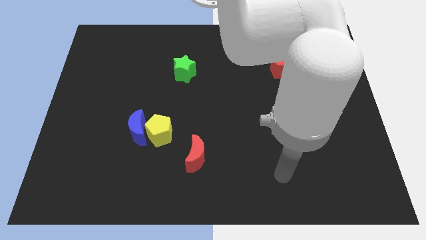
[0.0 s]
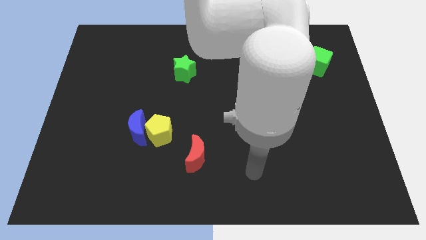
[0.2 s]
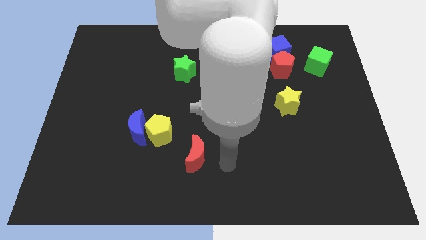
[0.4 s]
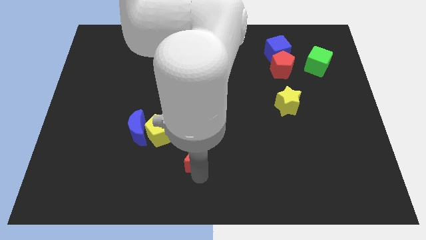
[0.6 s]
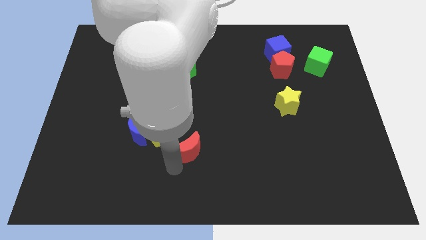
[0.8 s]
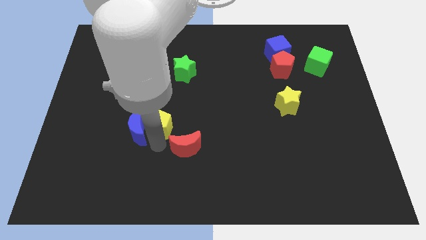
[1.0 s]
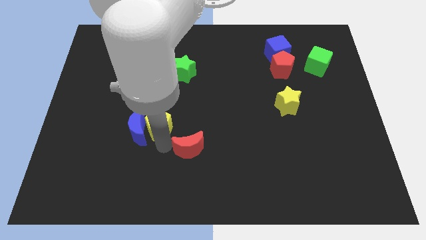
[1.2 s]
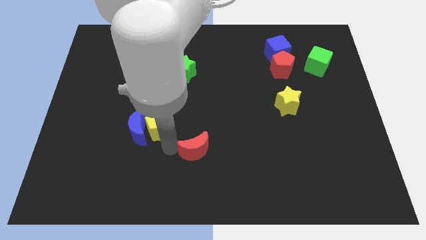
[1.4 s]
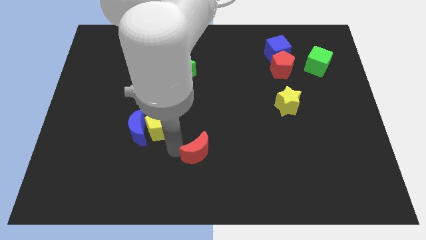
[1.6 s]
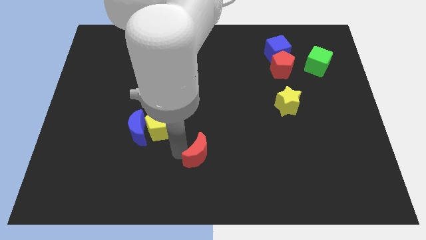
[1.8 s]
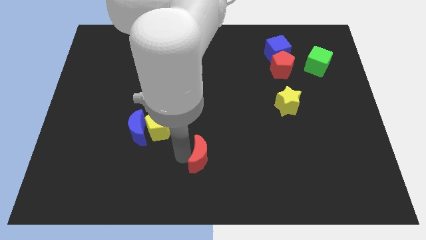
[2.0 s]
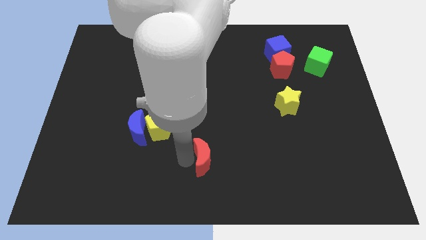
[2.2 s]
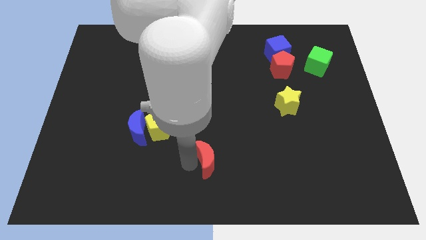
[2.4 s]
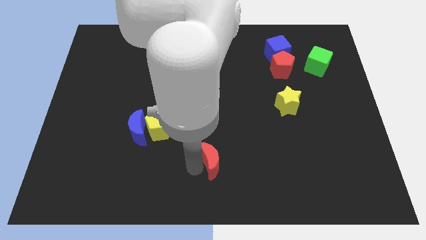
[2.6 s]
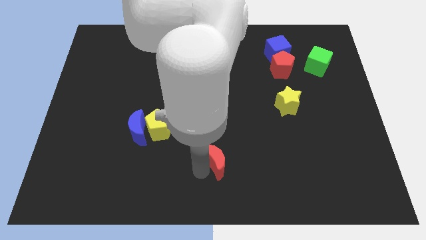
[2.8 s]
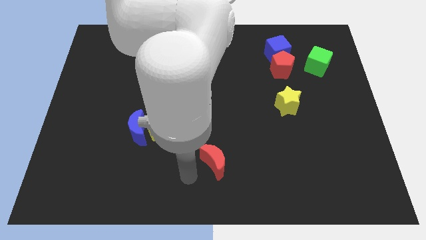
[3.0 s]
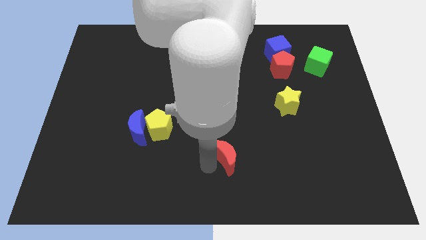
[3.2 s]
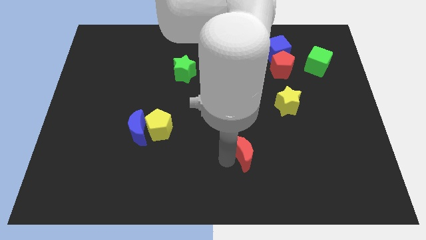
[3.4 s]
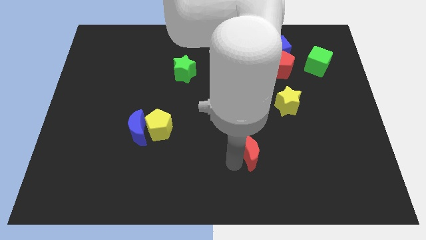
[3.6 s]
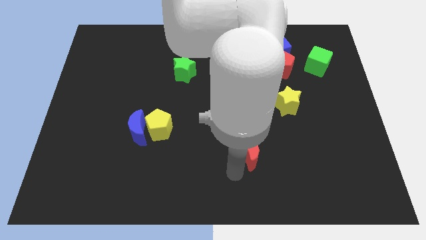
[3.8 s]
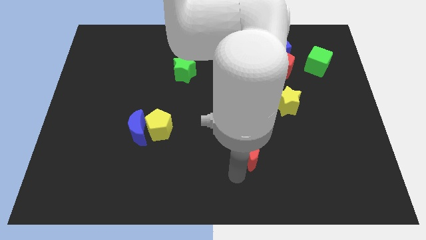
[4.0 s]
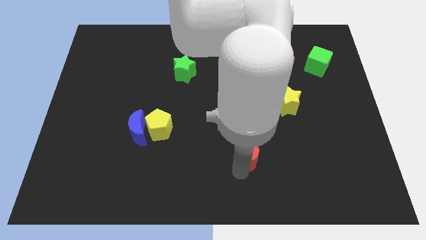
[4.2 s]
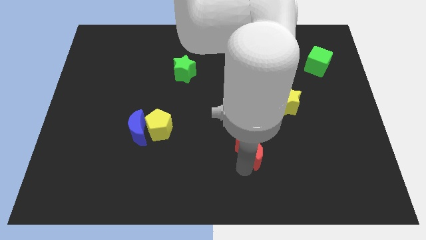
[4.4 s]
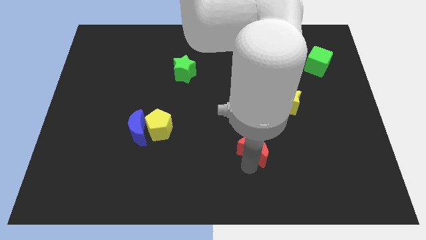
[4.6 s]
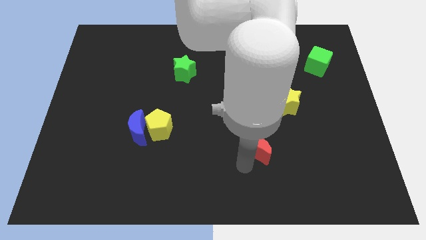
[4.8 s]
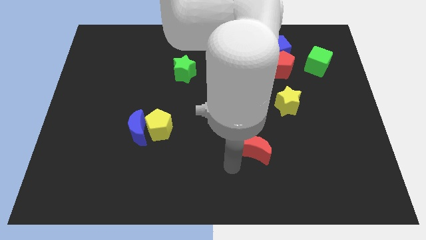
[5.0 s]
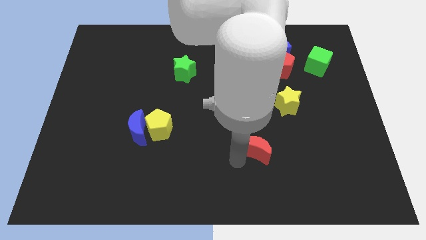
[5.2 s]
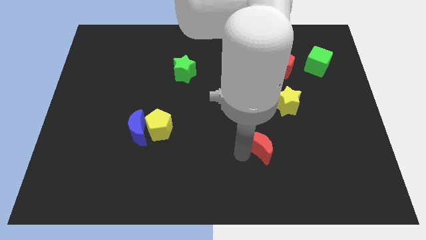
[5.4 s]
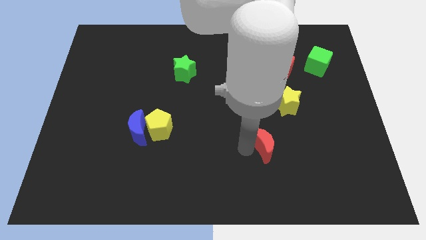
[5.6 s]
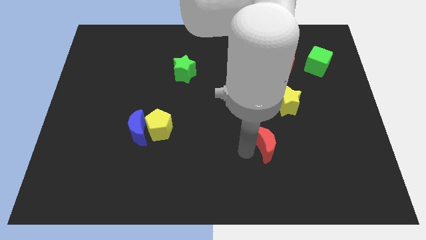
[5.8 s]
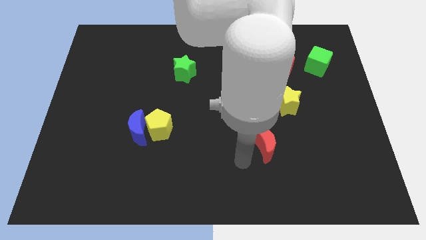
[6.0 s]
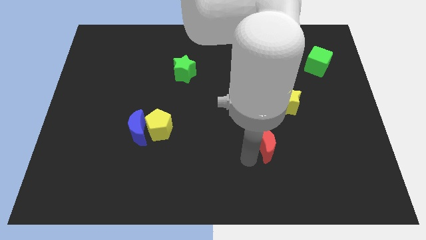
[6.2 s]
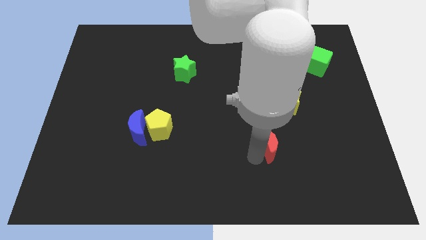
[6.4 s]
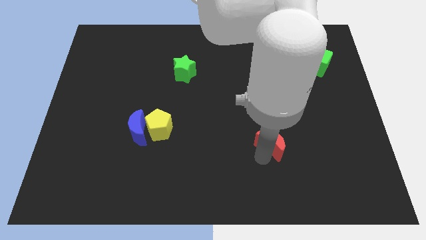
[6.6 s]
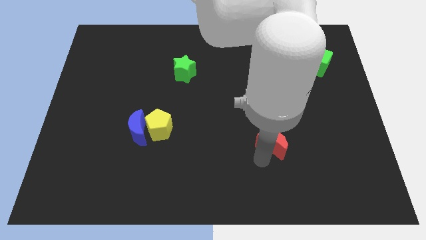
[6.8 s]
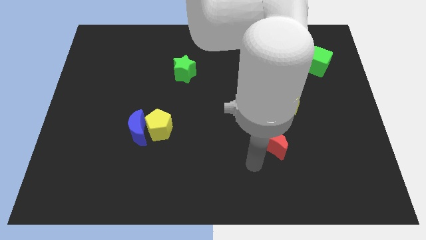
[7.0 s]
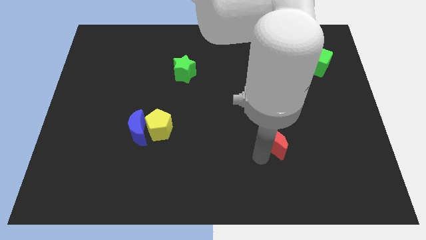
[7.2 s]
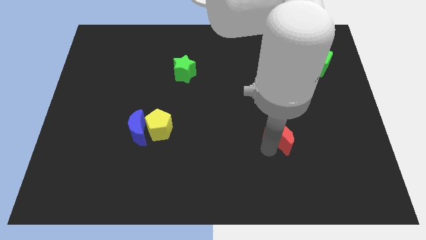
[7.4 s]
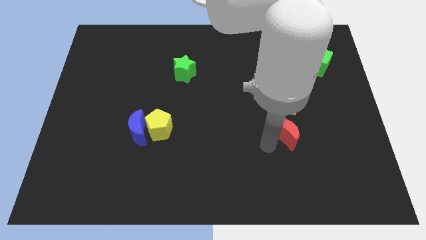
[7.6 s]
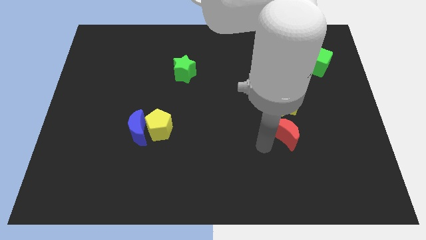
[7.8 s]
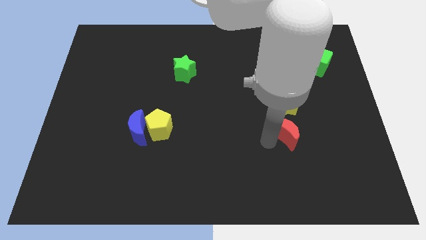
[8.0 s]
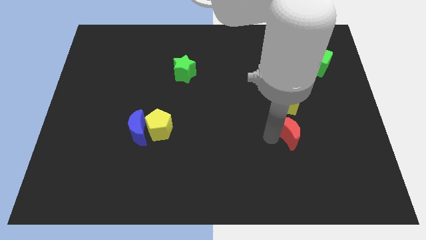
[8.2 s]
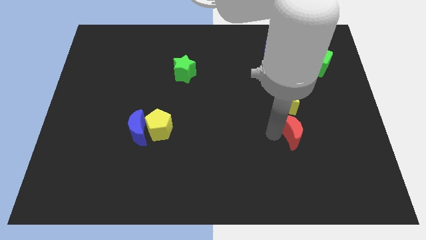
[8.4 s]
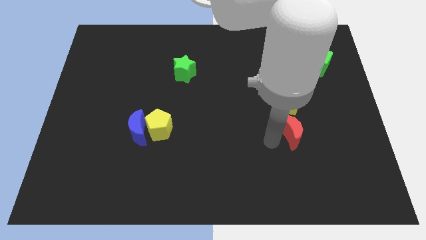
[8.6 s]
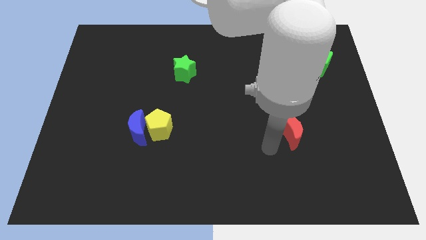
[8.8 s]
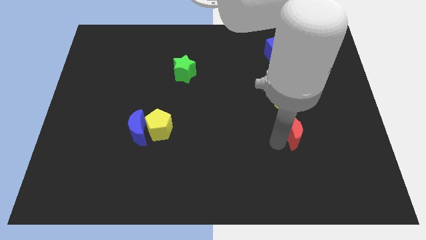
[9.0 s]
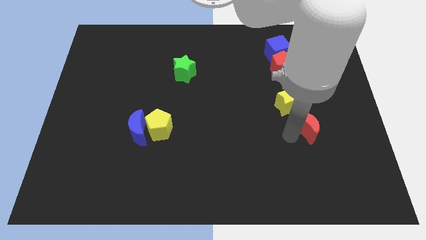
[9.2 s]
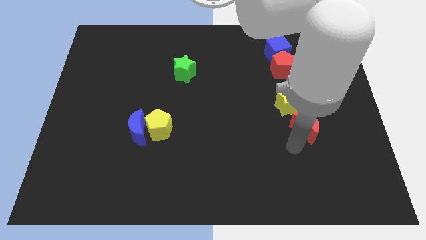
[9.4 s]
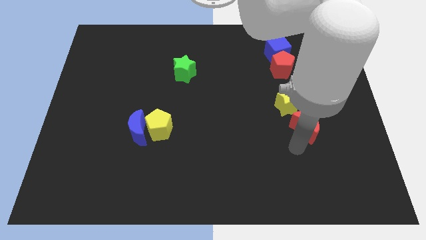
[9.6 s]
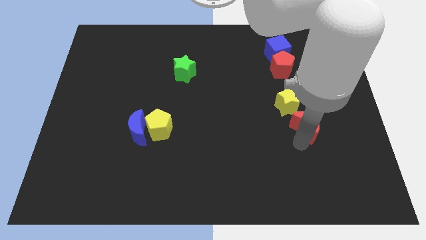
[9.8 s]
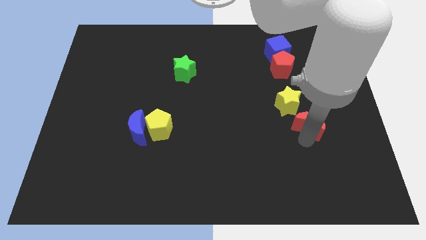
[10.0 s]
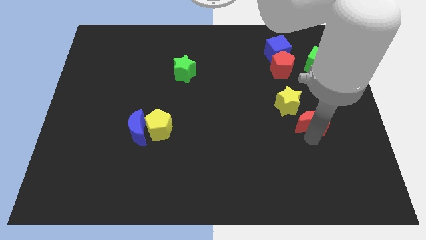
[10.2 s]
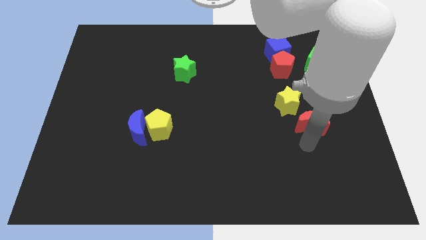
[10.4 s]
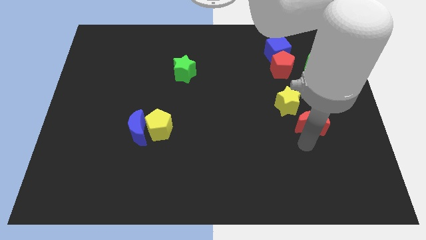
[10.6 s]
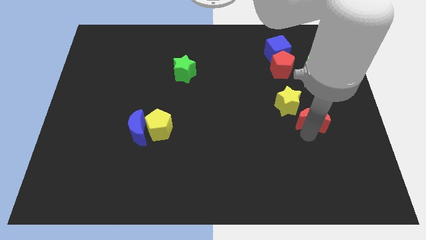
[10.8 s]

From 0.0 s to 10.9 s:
move the red moon to the right side of the yellow star

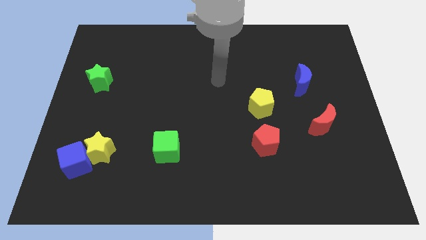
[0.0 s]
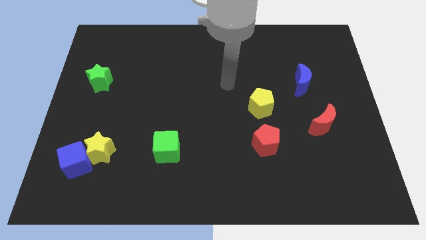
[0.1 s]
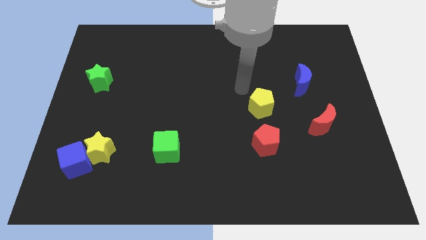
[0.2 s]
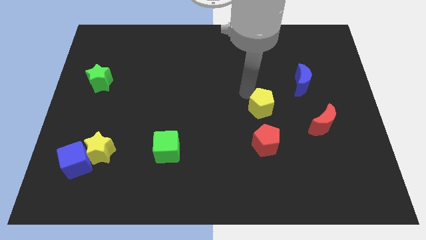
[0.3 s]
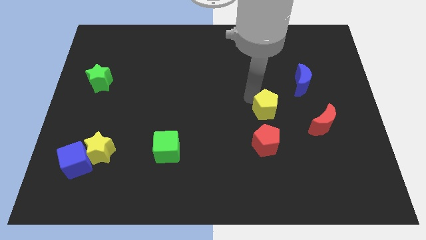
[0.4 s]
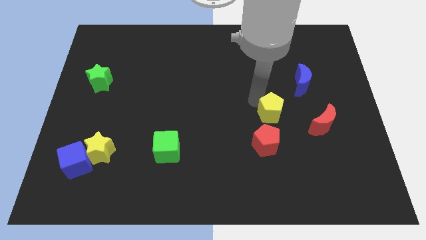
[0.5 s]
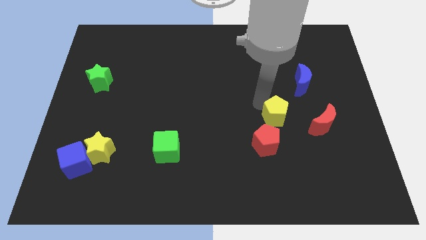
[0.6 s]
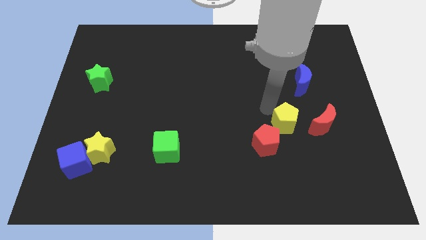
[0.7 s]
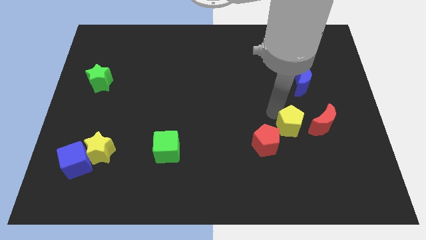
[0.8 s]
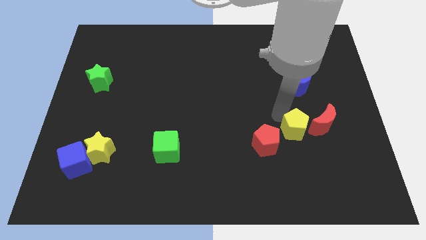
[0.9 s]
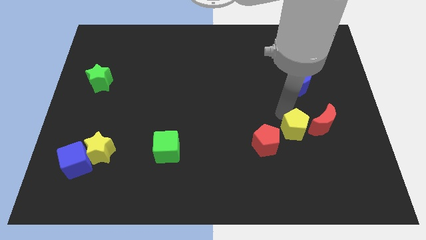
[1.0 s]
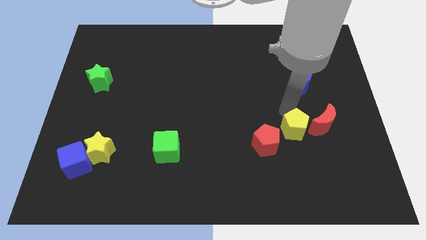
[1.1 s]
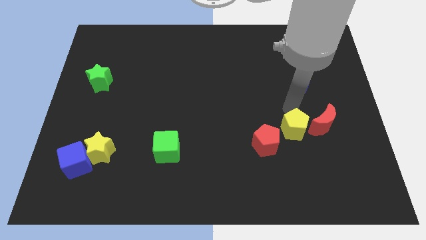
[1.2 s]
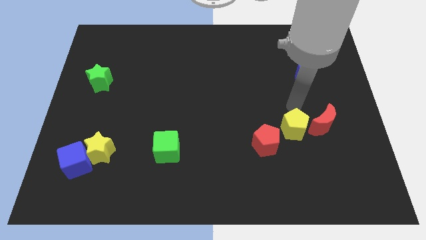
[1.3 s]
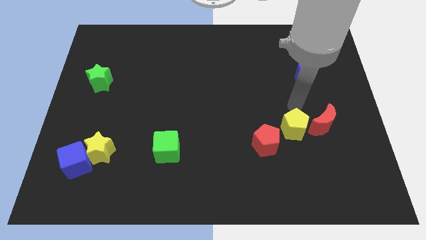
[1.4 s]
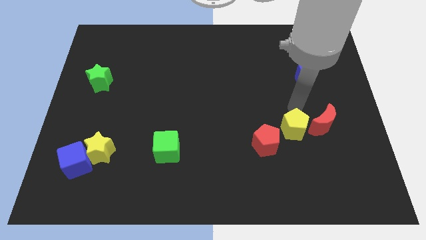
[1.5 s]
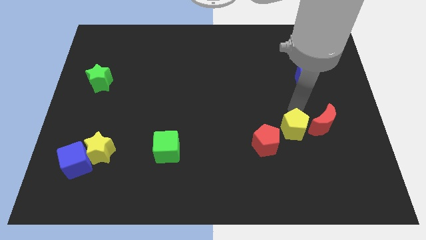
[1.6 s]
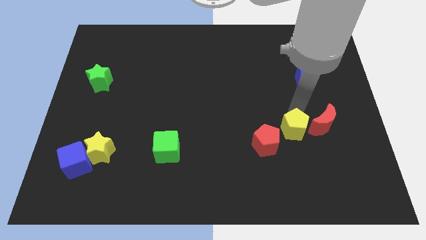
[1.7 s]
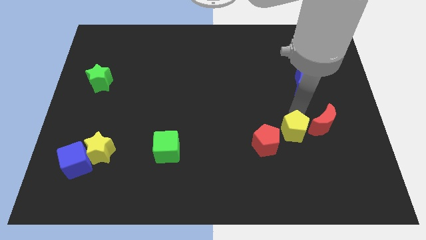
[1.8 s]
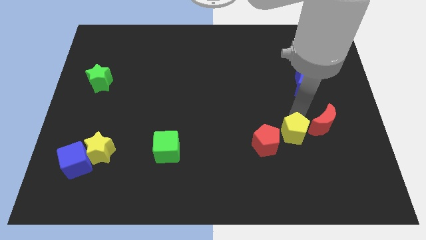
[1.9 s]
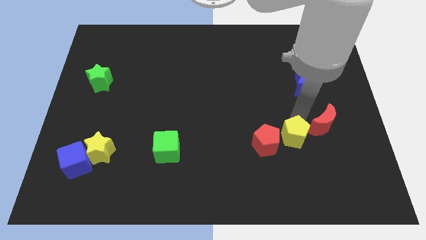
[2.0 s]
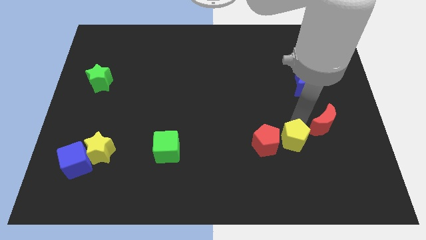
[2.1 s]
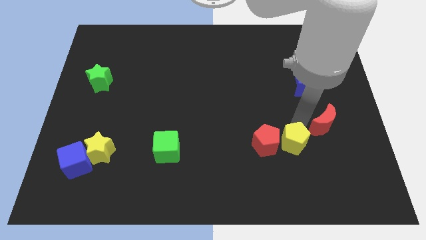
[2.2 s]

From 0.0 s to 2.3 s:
push the yellow pentagon to the bottom right side of the red pentagon
